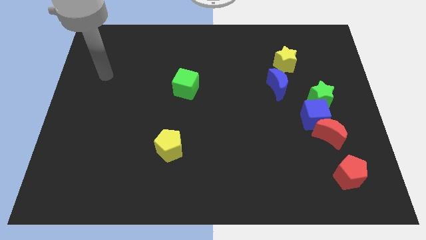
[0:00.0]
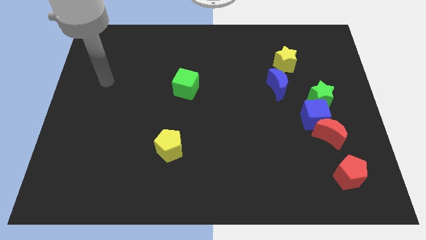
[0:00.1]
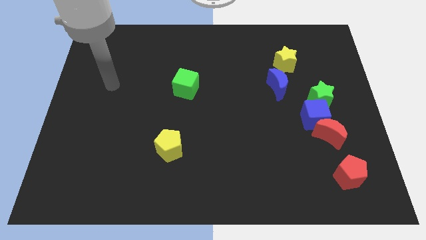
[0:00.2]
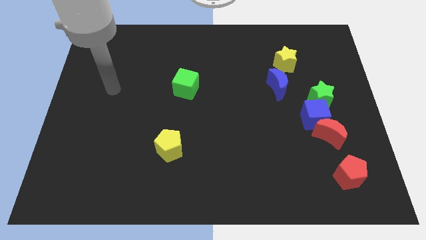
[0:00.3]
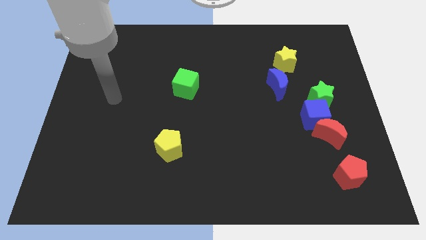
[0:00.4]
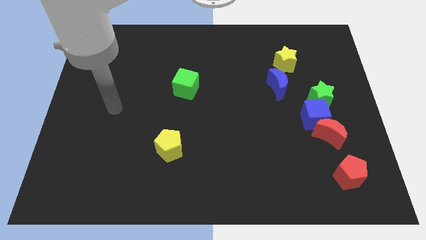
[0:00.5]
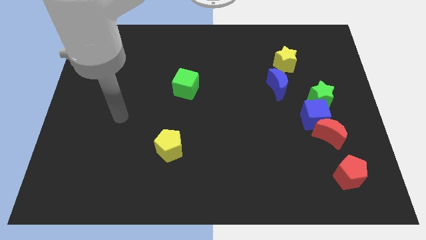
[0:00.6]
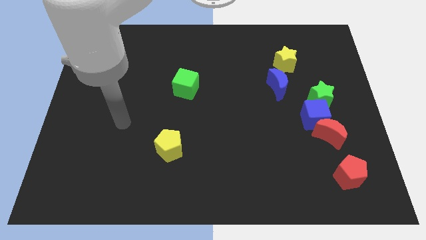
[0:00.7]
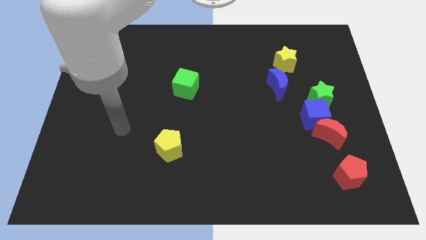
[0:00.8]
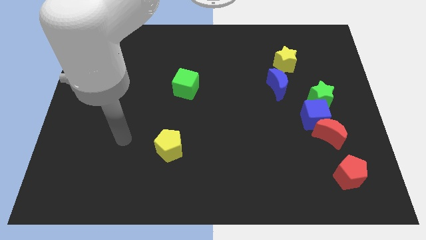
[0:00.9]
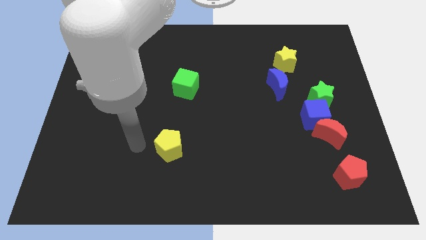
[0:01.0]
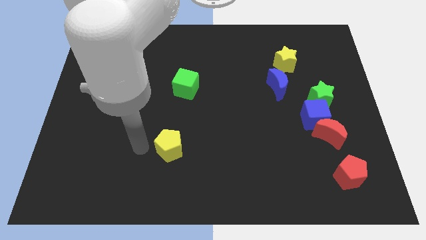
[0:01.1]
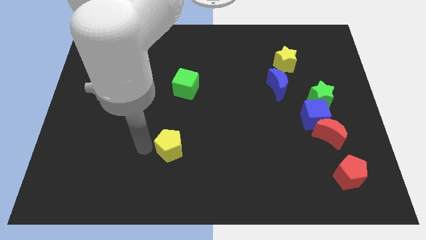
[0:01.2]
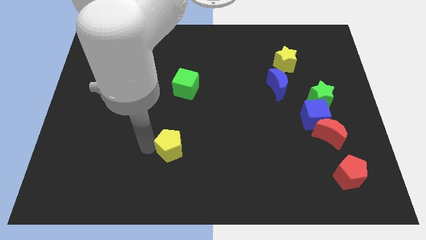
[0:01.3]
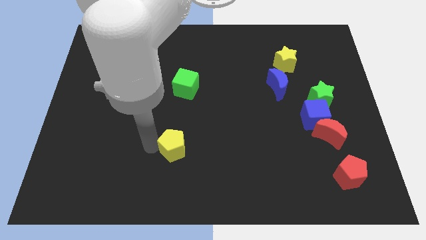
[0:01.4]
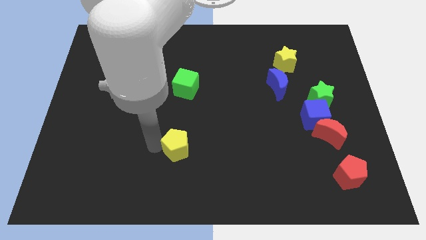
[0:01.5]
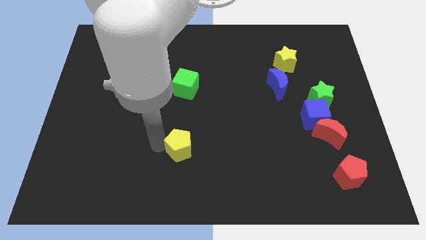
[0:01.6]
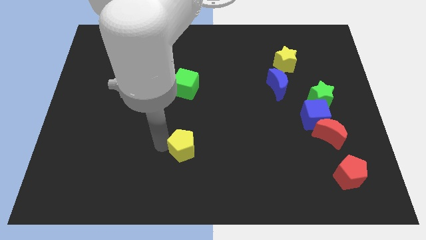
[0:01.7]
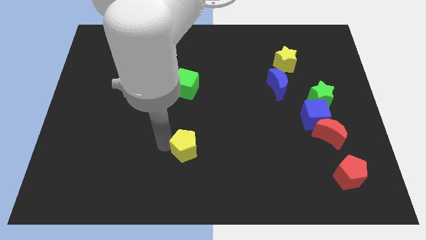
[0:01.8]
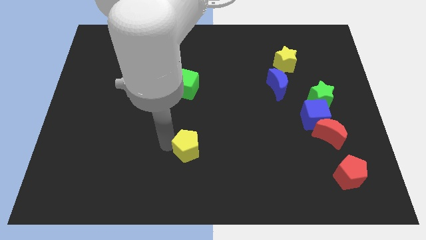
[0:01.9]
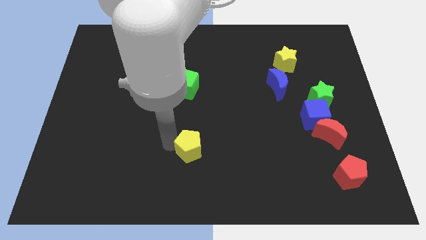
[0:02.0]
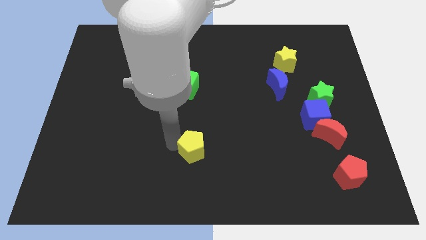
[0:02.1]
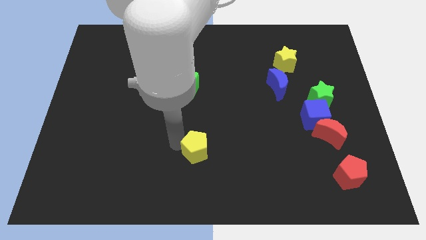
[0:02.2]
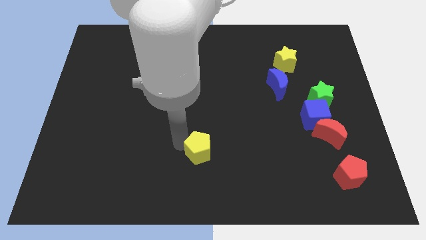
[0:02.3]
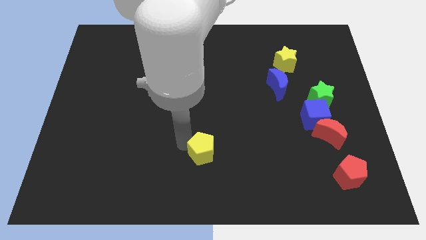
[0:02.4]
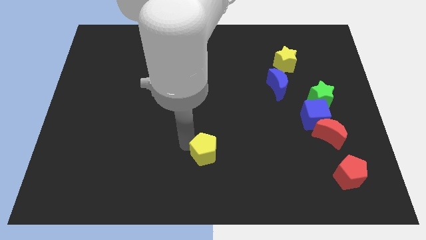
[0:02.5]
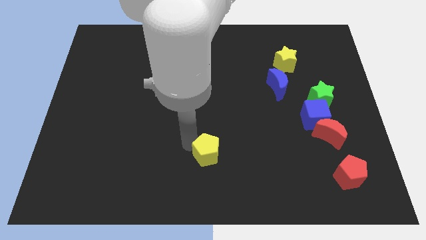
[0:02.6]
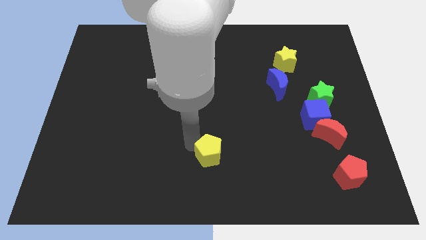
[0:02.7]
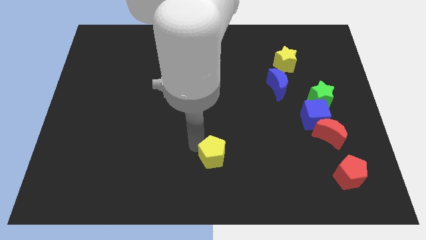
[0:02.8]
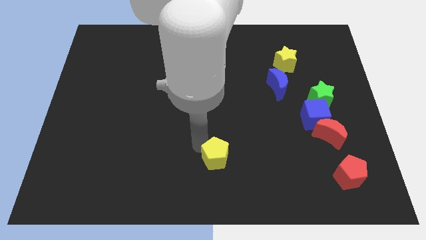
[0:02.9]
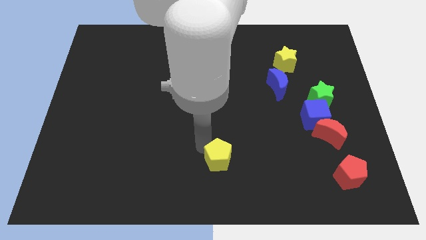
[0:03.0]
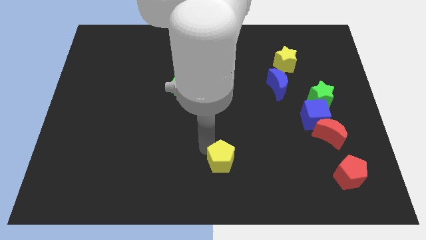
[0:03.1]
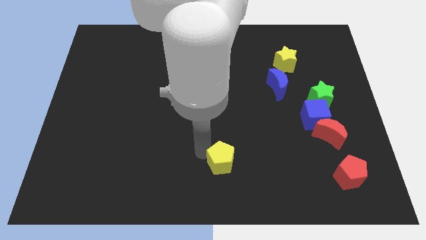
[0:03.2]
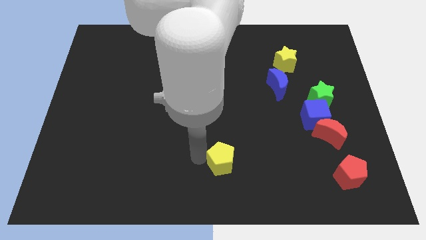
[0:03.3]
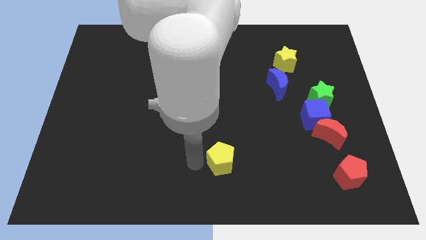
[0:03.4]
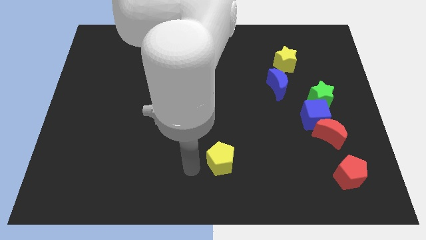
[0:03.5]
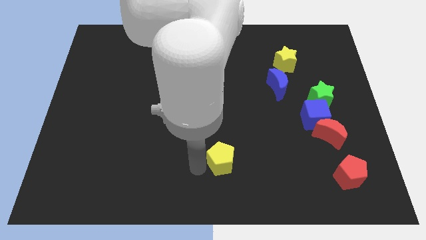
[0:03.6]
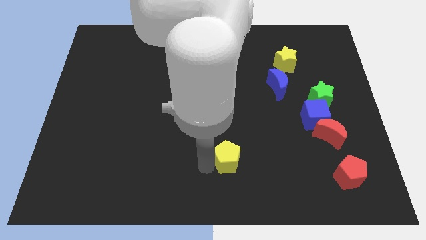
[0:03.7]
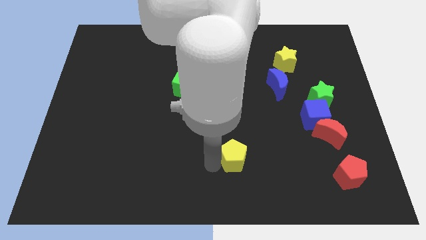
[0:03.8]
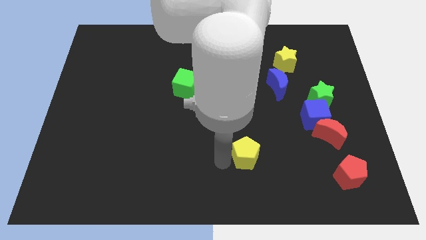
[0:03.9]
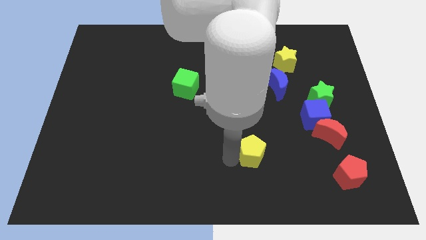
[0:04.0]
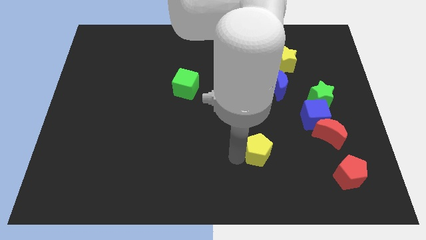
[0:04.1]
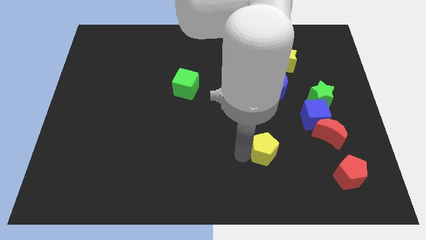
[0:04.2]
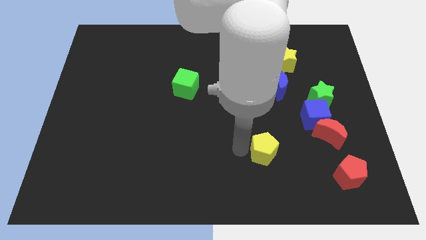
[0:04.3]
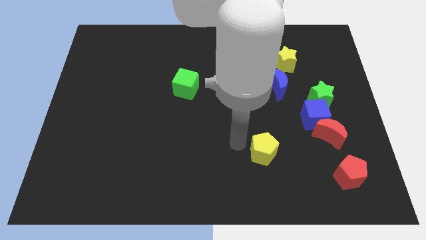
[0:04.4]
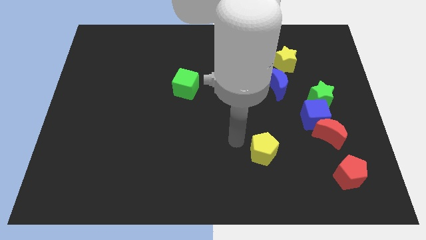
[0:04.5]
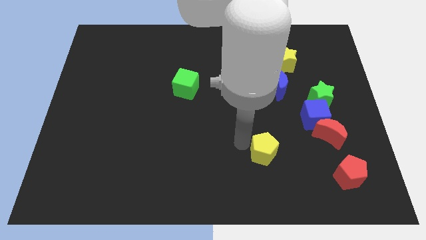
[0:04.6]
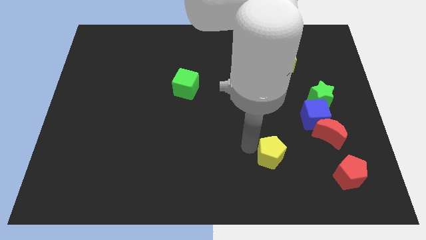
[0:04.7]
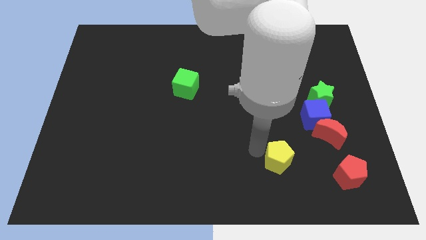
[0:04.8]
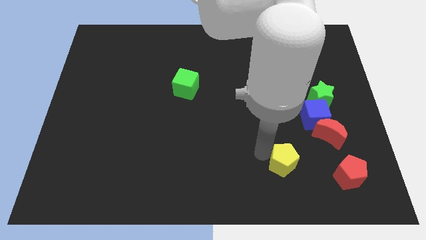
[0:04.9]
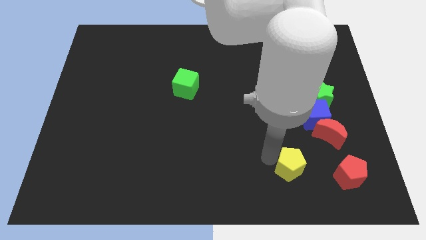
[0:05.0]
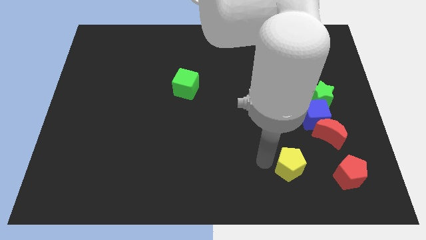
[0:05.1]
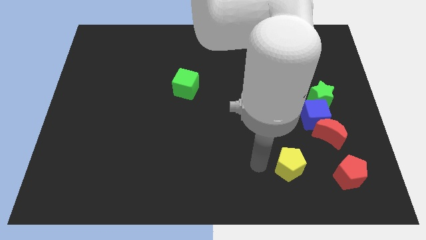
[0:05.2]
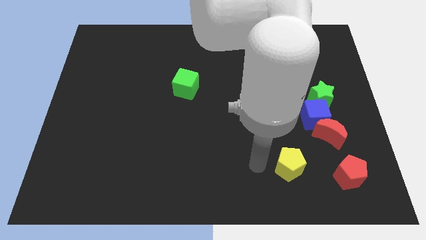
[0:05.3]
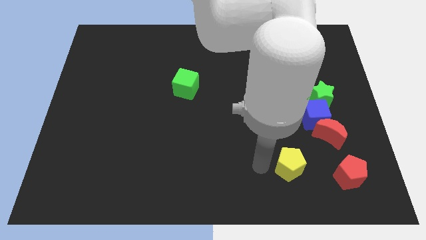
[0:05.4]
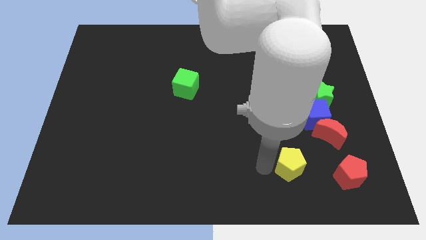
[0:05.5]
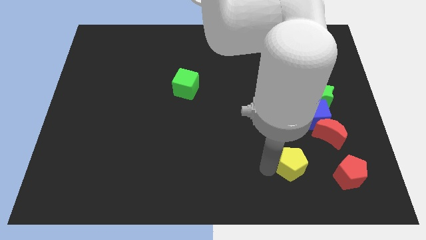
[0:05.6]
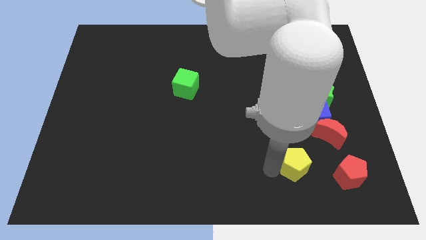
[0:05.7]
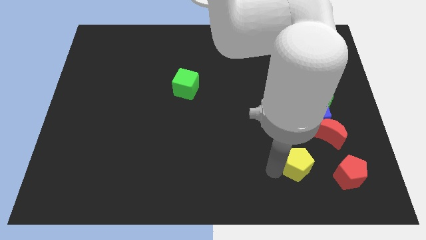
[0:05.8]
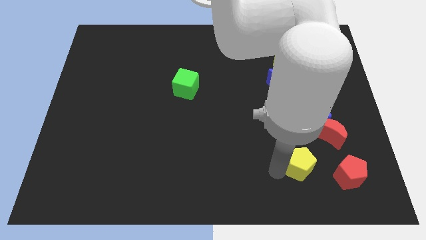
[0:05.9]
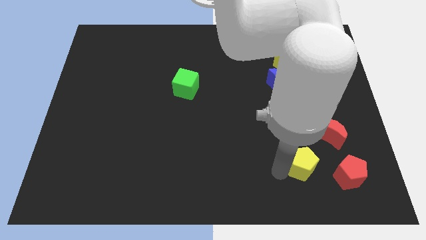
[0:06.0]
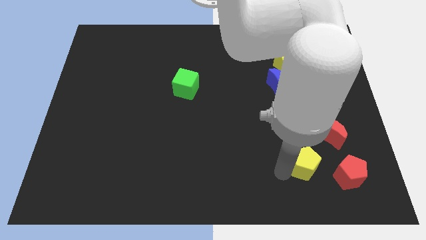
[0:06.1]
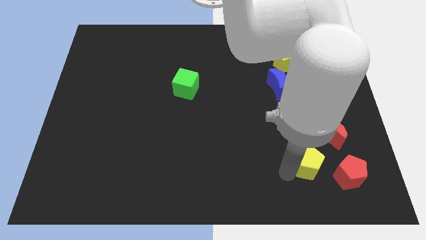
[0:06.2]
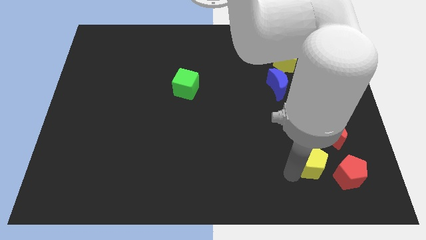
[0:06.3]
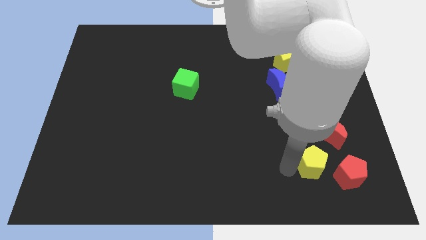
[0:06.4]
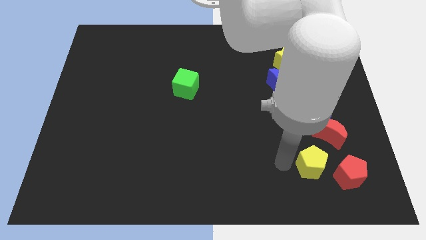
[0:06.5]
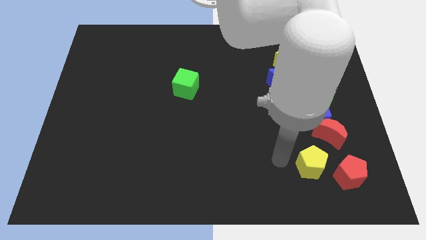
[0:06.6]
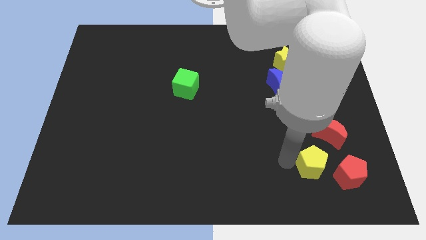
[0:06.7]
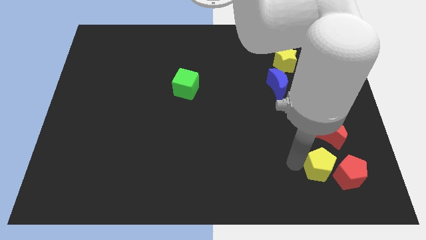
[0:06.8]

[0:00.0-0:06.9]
push the yellow pentagon to the red pentagon

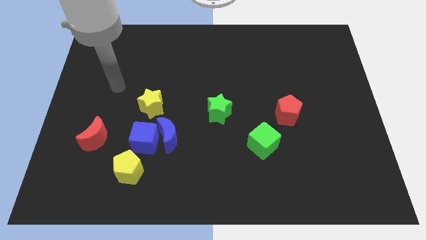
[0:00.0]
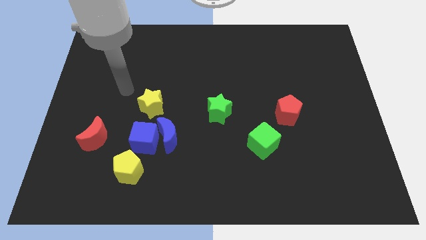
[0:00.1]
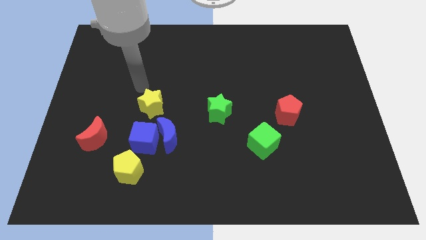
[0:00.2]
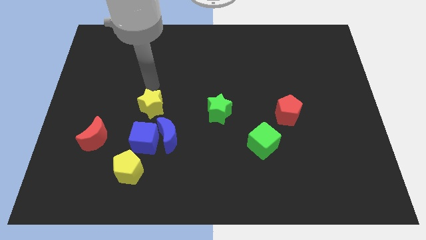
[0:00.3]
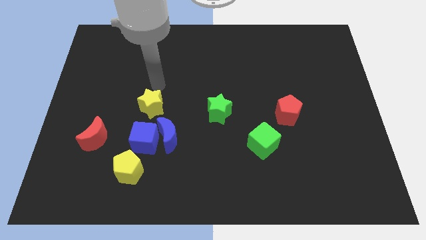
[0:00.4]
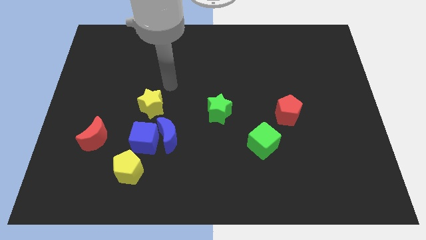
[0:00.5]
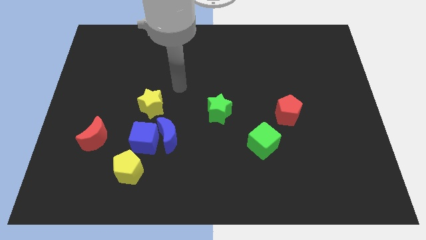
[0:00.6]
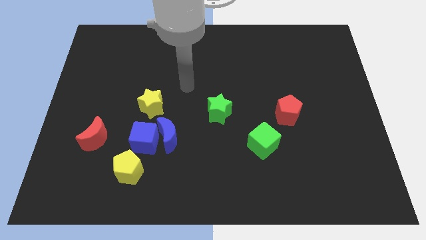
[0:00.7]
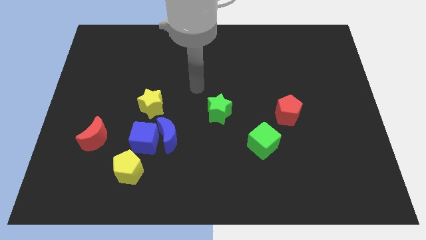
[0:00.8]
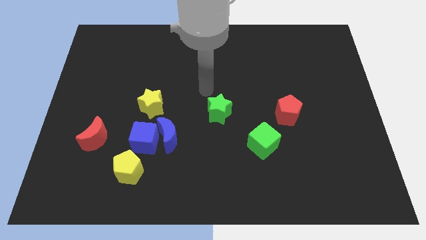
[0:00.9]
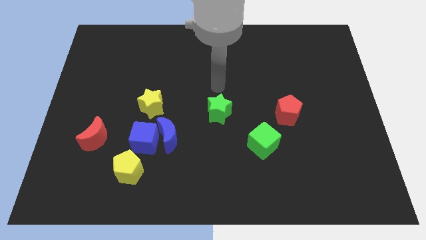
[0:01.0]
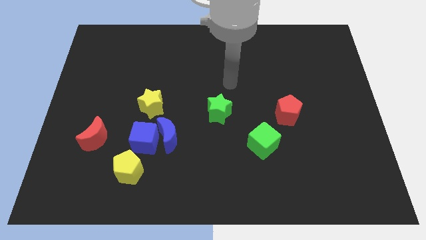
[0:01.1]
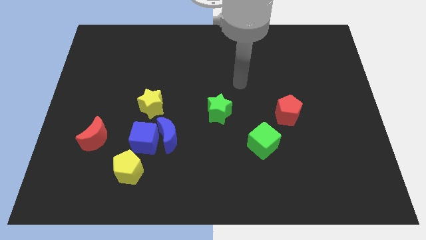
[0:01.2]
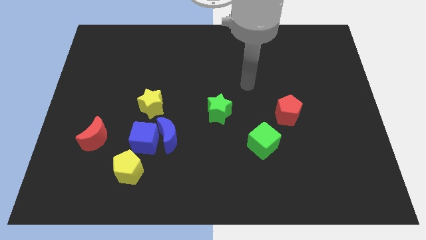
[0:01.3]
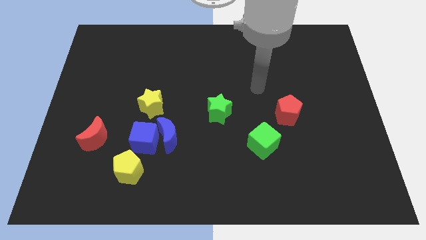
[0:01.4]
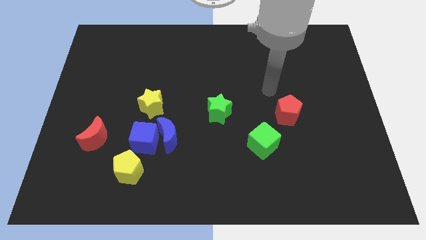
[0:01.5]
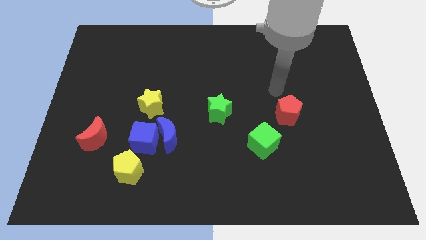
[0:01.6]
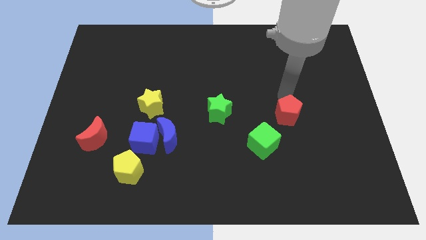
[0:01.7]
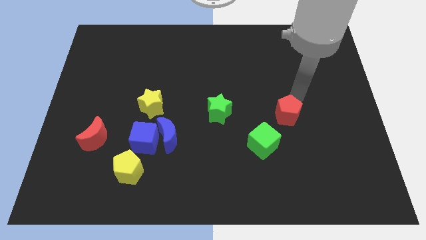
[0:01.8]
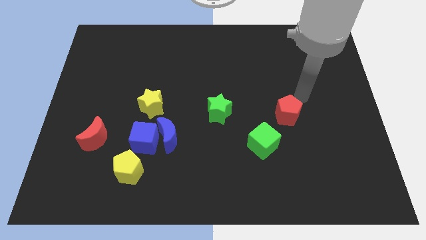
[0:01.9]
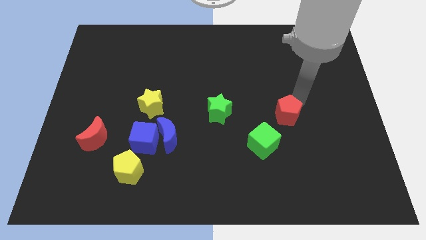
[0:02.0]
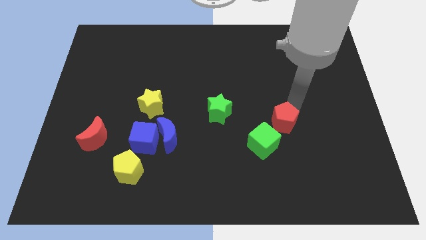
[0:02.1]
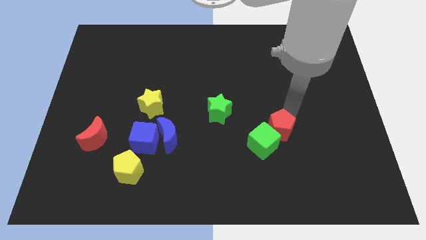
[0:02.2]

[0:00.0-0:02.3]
slide the red pentagon towards the green cube
